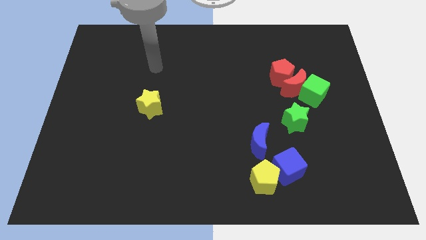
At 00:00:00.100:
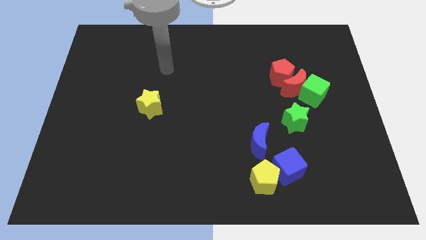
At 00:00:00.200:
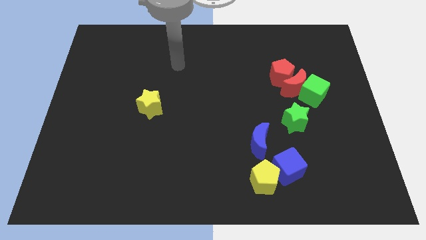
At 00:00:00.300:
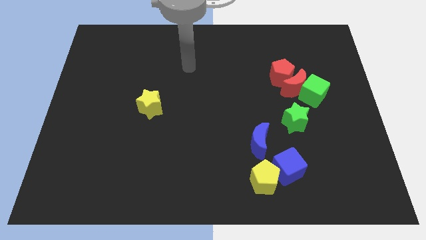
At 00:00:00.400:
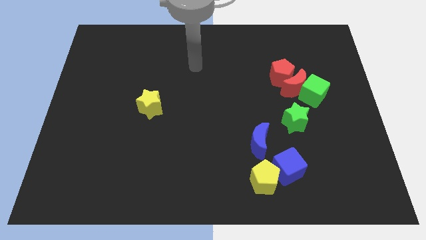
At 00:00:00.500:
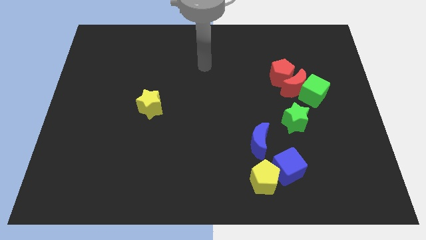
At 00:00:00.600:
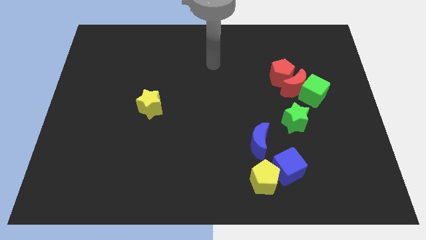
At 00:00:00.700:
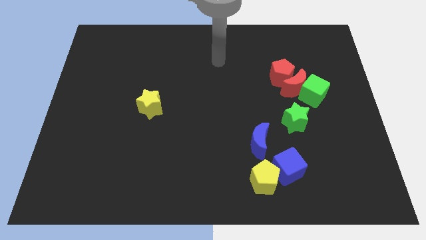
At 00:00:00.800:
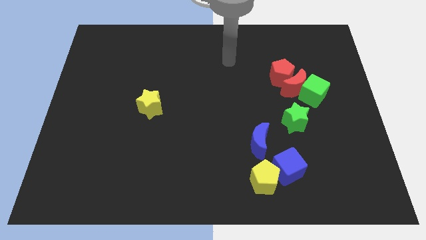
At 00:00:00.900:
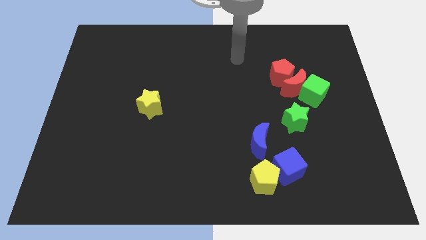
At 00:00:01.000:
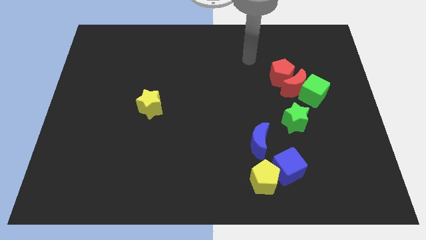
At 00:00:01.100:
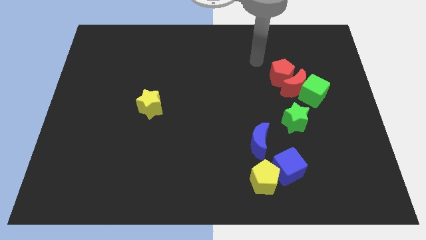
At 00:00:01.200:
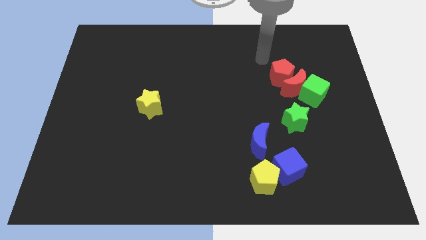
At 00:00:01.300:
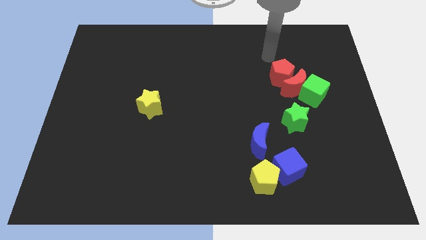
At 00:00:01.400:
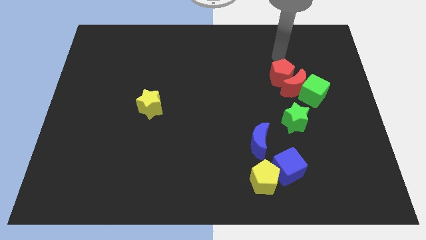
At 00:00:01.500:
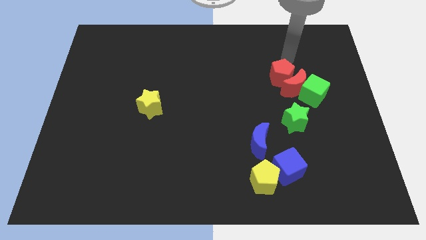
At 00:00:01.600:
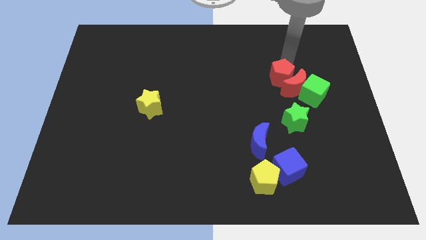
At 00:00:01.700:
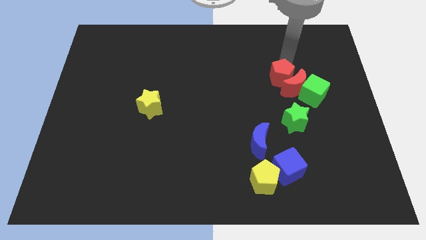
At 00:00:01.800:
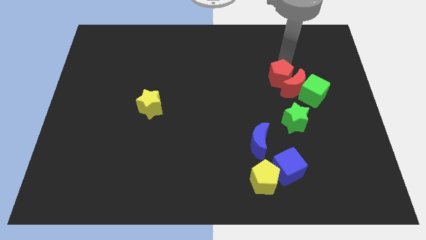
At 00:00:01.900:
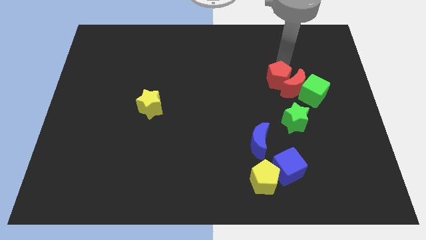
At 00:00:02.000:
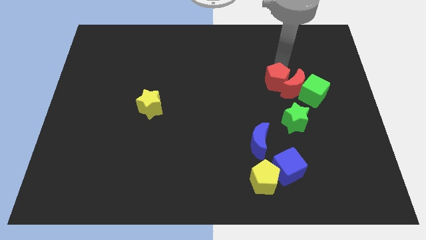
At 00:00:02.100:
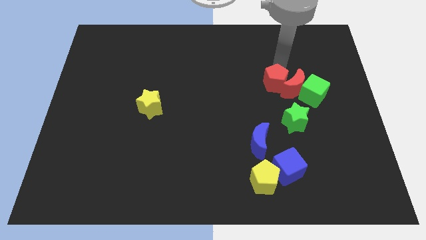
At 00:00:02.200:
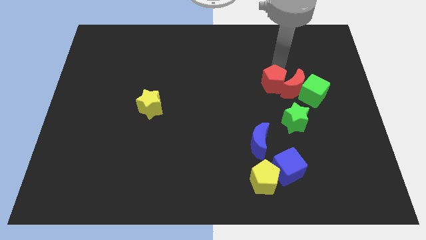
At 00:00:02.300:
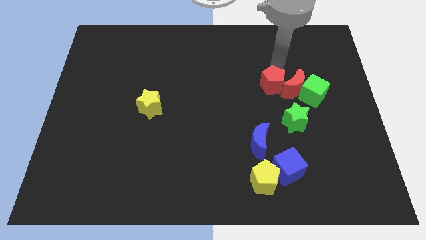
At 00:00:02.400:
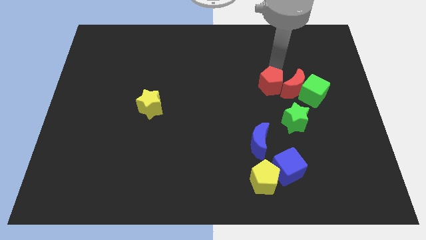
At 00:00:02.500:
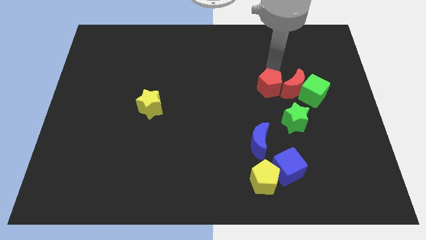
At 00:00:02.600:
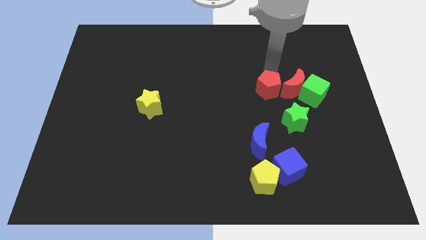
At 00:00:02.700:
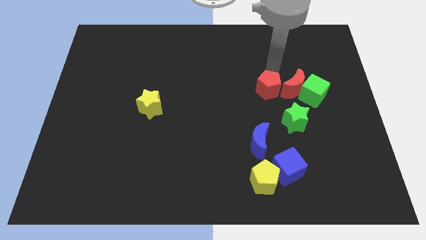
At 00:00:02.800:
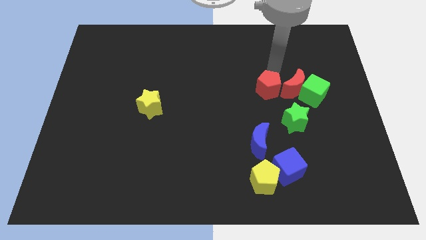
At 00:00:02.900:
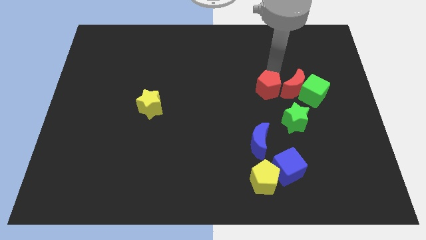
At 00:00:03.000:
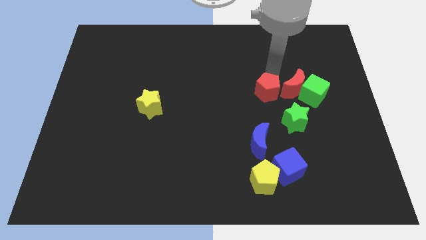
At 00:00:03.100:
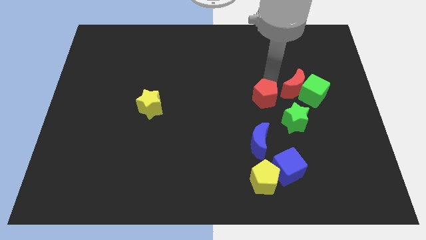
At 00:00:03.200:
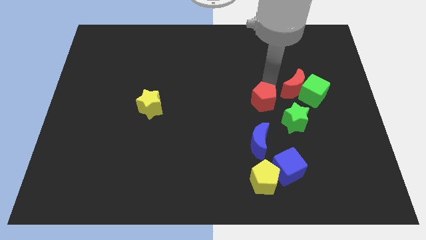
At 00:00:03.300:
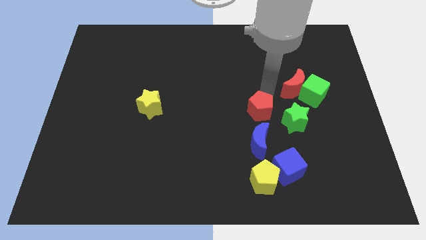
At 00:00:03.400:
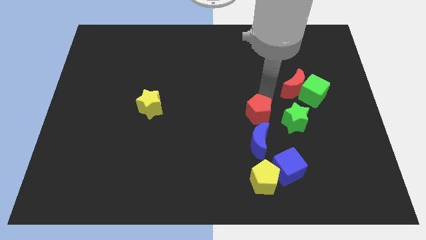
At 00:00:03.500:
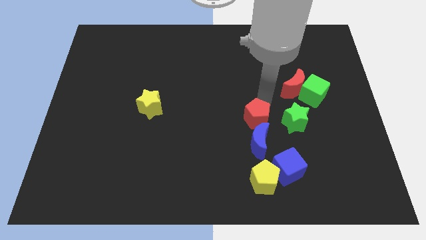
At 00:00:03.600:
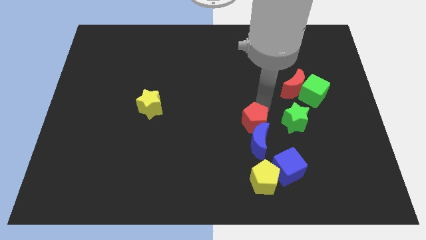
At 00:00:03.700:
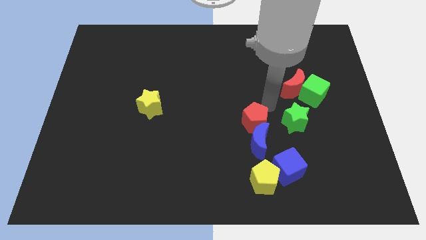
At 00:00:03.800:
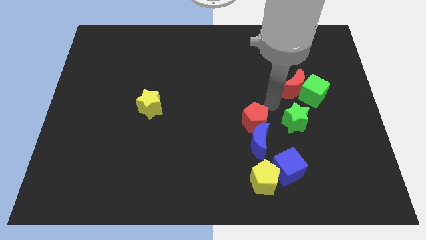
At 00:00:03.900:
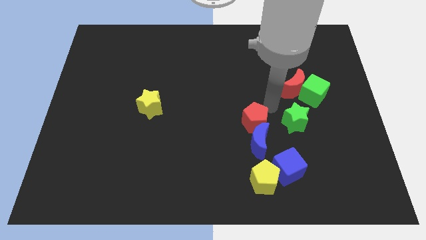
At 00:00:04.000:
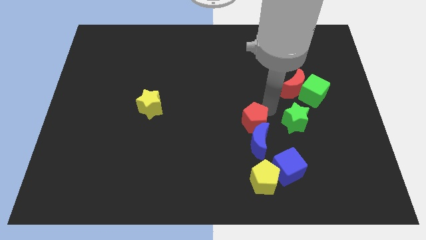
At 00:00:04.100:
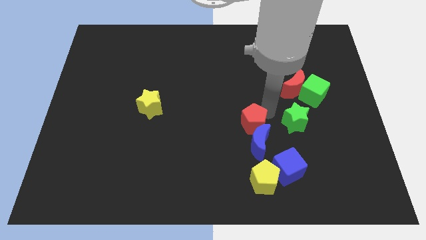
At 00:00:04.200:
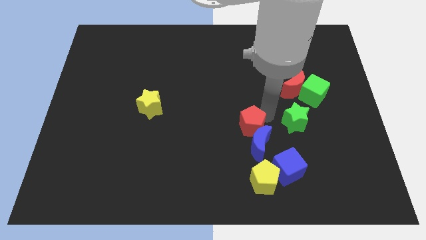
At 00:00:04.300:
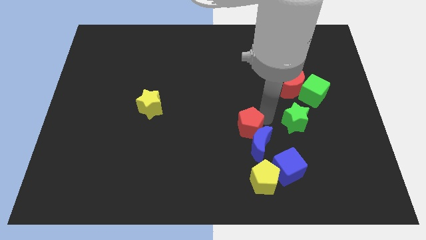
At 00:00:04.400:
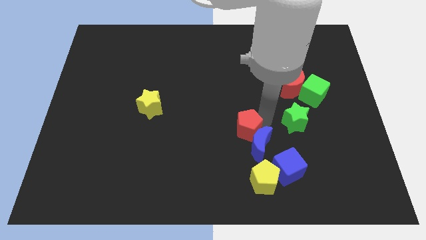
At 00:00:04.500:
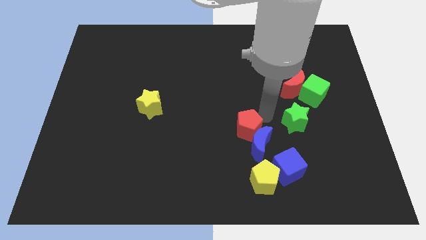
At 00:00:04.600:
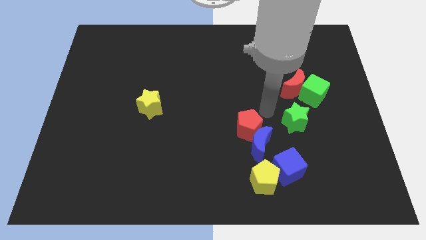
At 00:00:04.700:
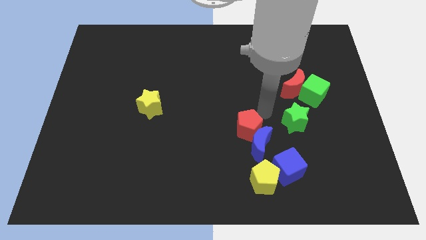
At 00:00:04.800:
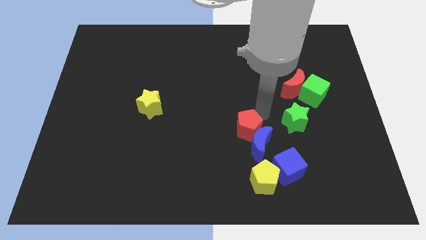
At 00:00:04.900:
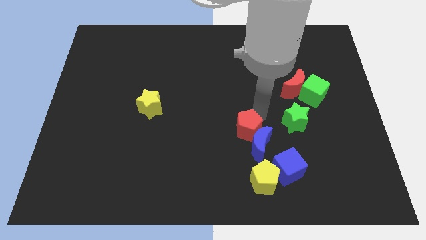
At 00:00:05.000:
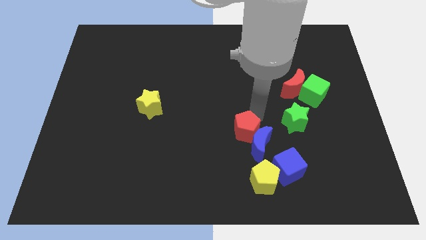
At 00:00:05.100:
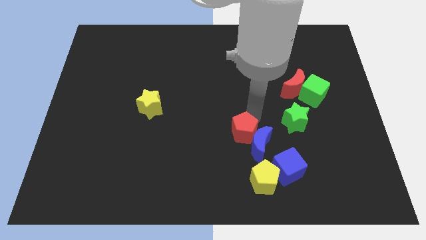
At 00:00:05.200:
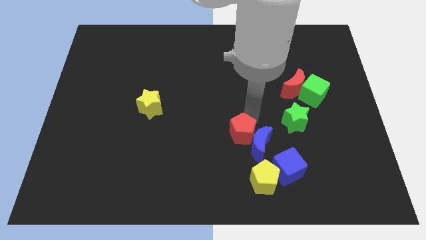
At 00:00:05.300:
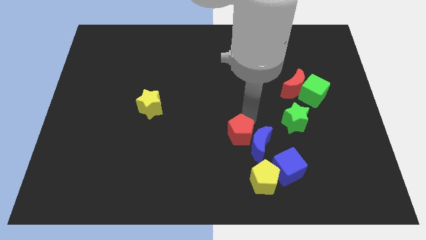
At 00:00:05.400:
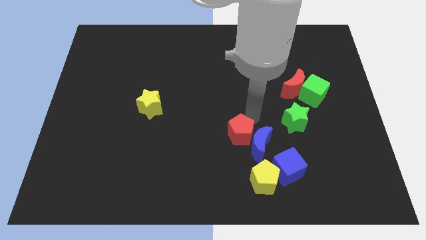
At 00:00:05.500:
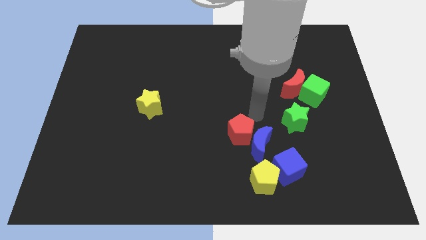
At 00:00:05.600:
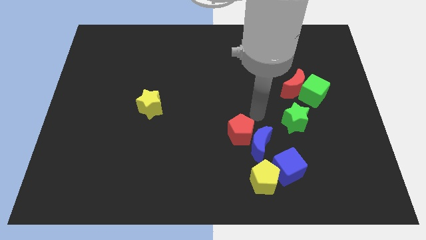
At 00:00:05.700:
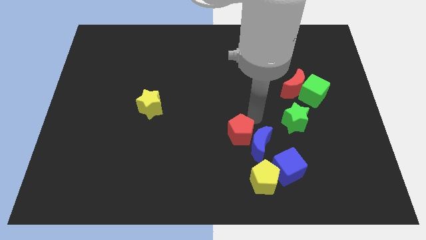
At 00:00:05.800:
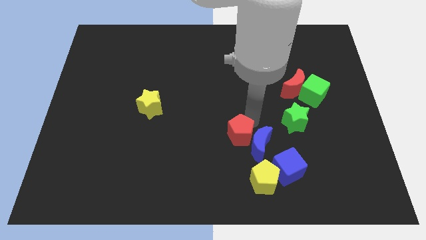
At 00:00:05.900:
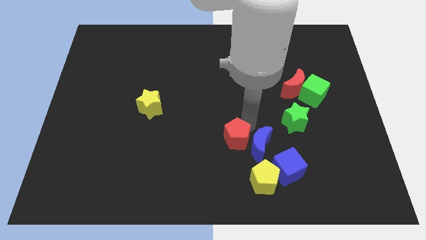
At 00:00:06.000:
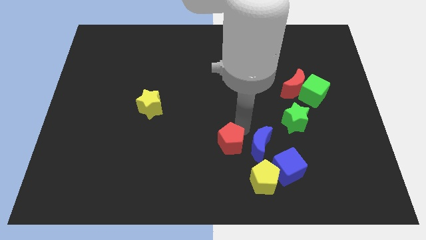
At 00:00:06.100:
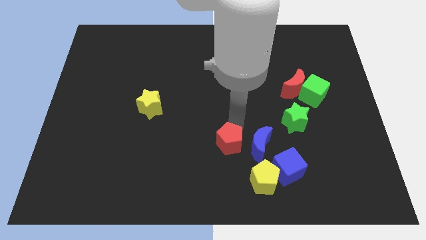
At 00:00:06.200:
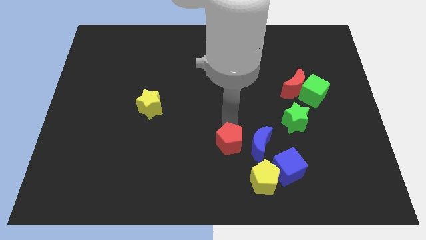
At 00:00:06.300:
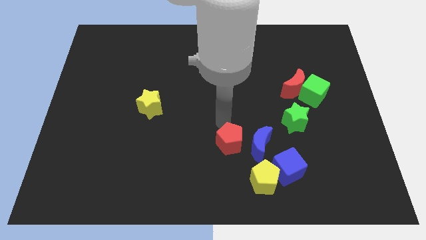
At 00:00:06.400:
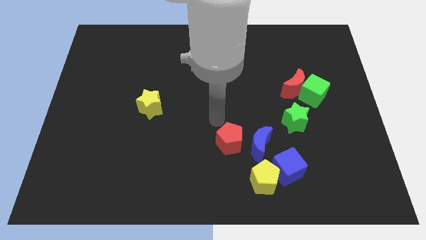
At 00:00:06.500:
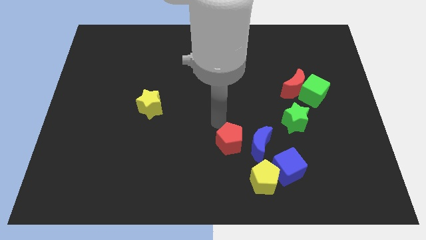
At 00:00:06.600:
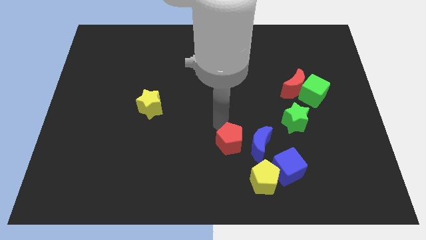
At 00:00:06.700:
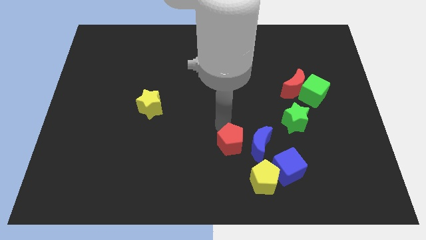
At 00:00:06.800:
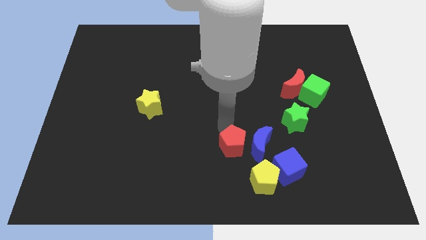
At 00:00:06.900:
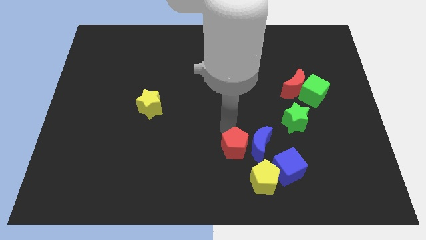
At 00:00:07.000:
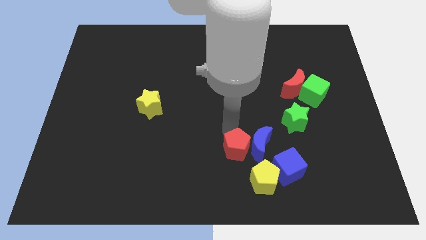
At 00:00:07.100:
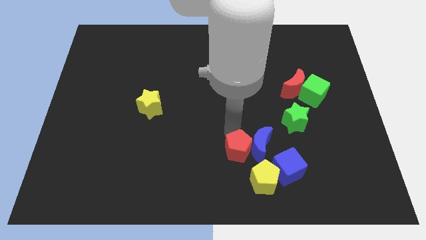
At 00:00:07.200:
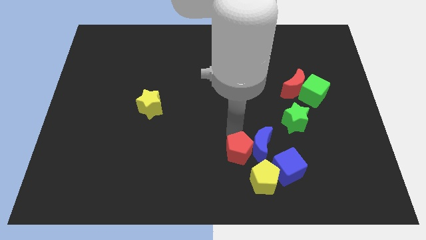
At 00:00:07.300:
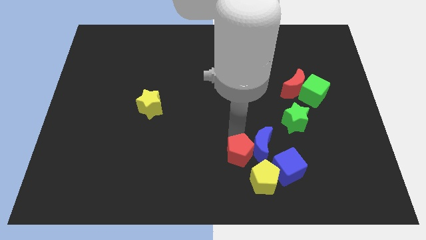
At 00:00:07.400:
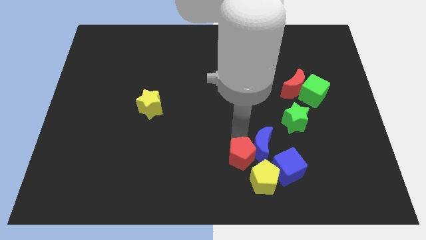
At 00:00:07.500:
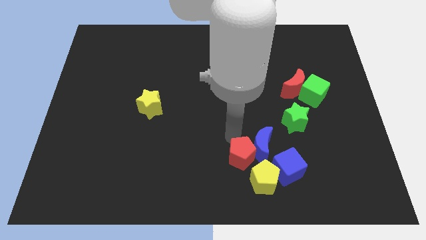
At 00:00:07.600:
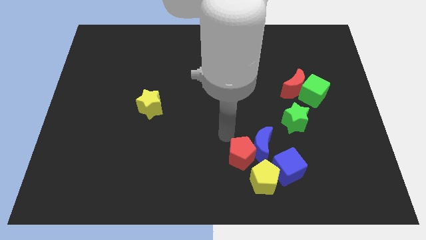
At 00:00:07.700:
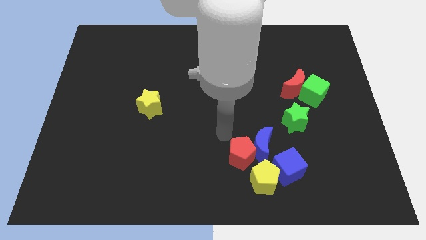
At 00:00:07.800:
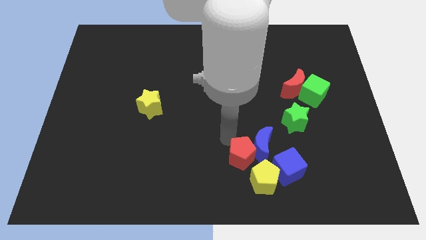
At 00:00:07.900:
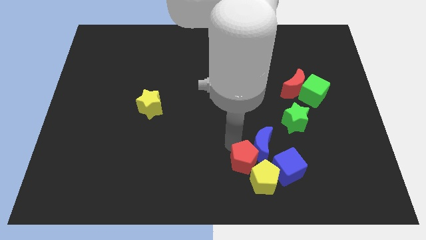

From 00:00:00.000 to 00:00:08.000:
slide the red pentagon towards the yellow pentagon
